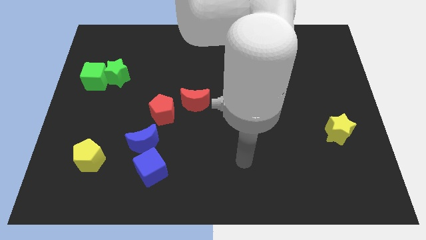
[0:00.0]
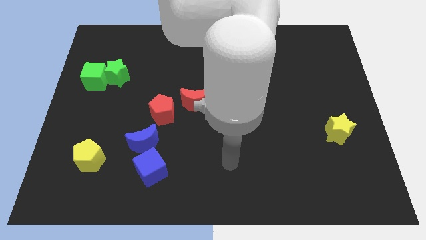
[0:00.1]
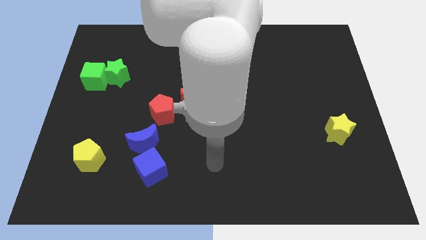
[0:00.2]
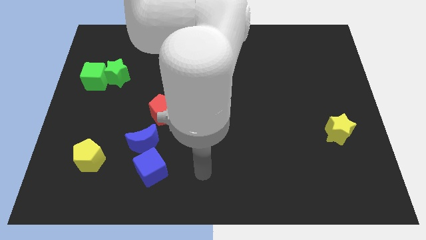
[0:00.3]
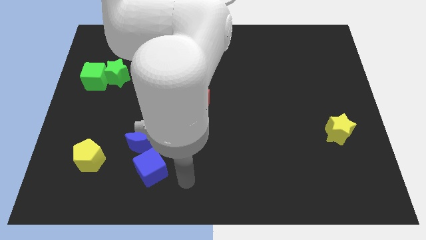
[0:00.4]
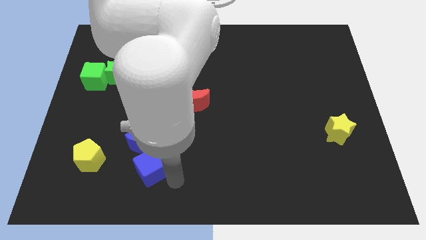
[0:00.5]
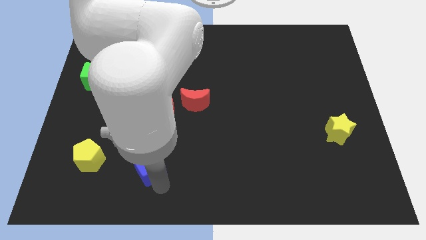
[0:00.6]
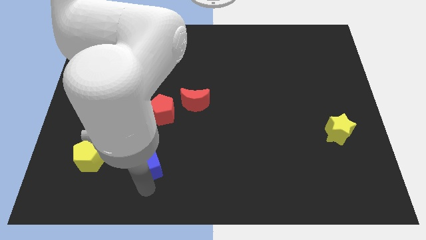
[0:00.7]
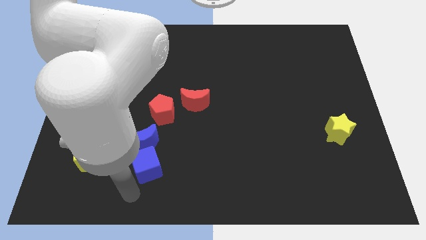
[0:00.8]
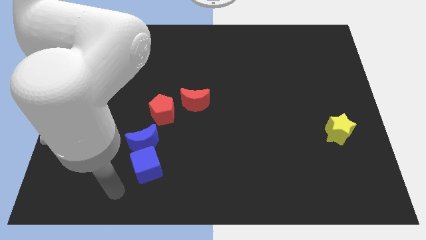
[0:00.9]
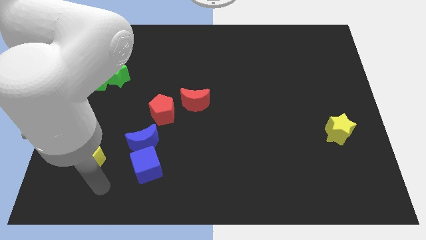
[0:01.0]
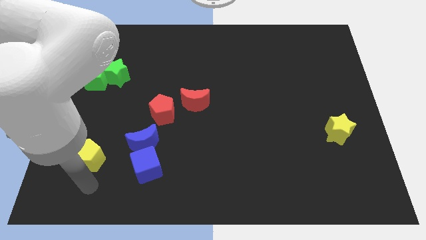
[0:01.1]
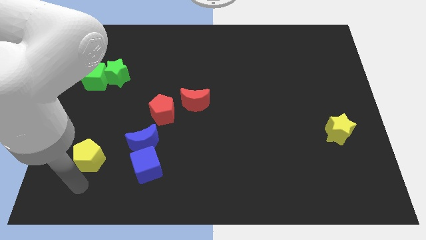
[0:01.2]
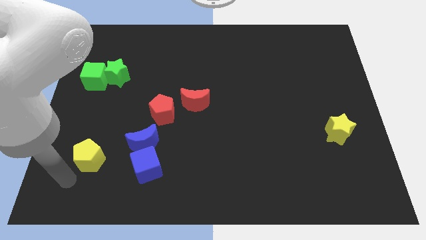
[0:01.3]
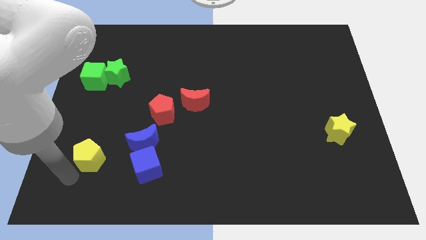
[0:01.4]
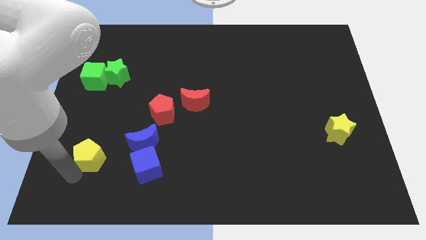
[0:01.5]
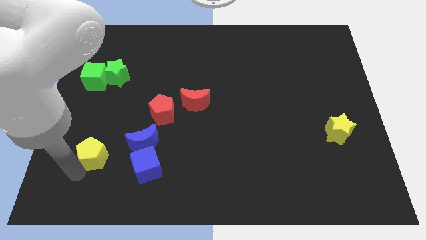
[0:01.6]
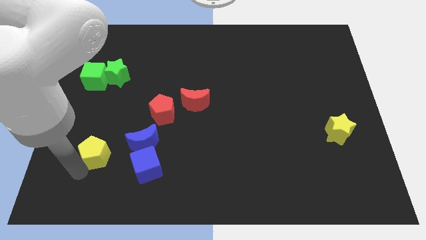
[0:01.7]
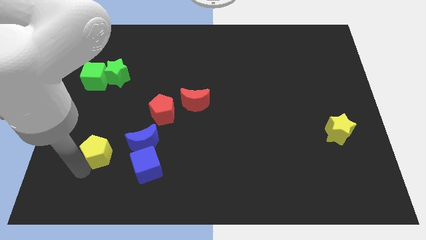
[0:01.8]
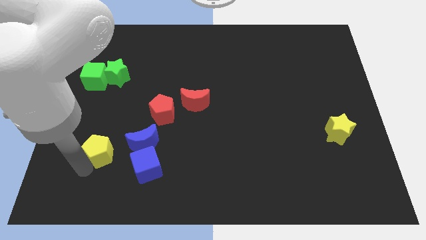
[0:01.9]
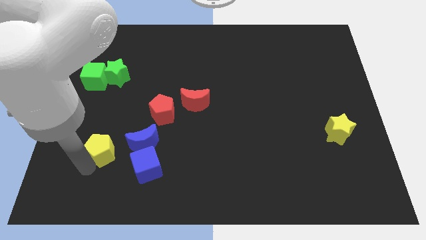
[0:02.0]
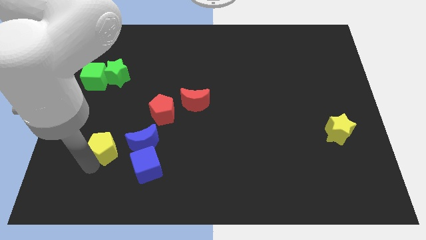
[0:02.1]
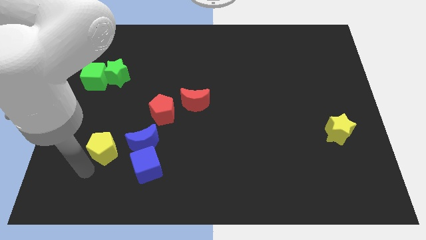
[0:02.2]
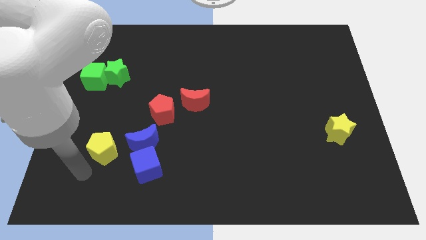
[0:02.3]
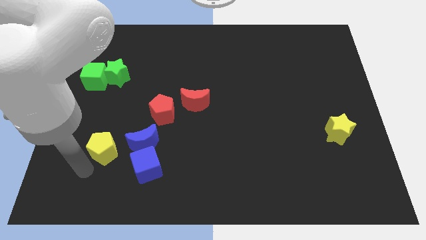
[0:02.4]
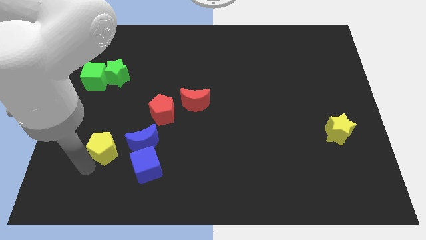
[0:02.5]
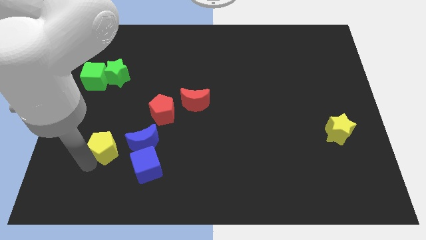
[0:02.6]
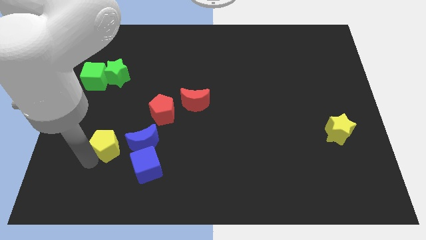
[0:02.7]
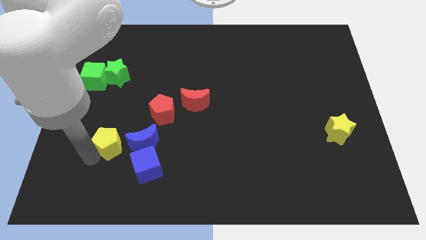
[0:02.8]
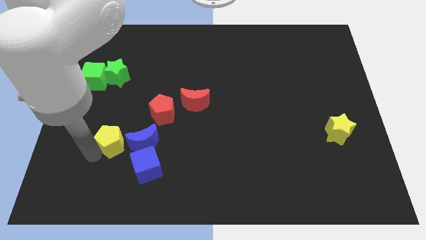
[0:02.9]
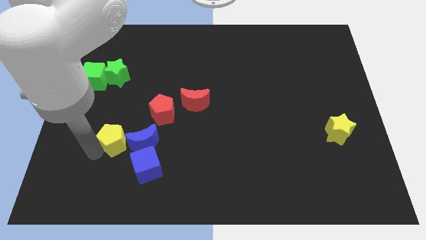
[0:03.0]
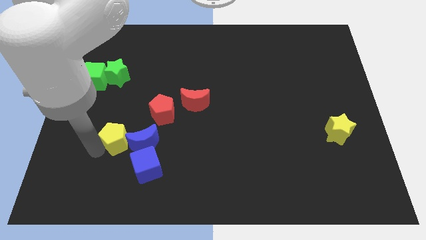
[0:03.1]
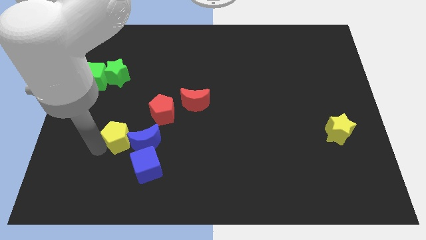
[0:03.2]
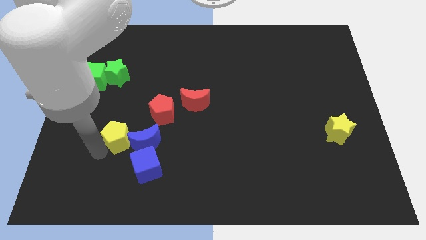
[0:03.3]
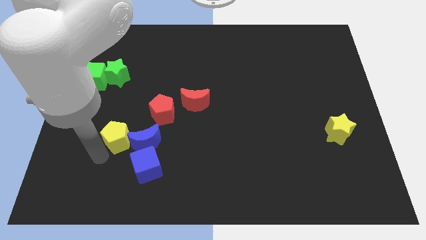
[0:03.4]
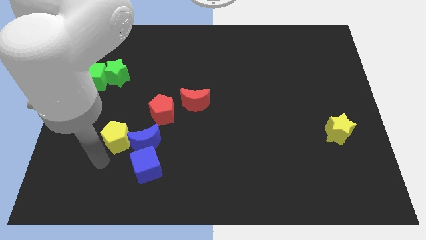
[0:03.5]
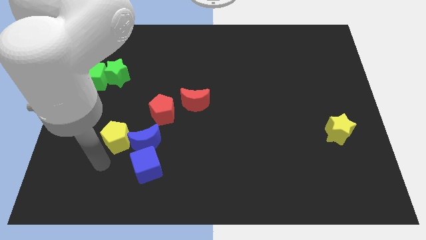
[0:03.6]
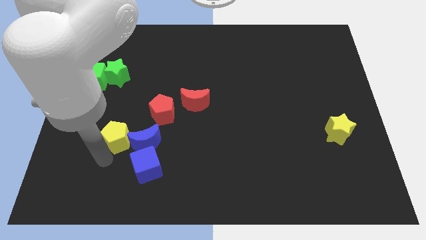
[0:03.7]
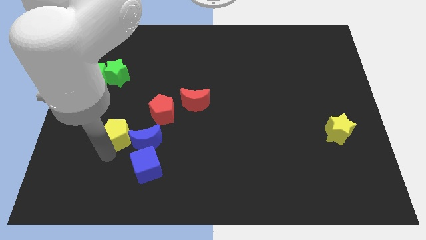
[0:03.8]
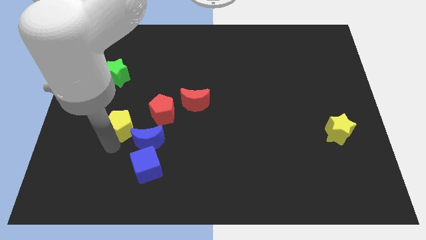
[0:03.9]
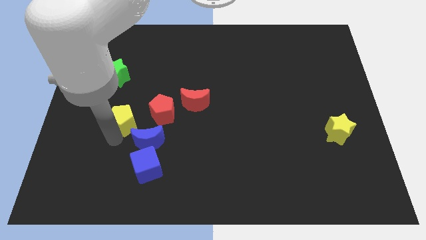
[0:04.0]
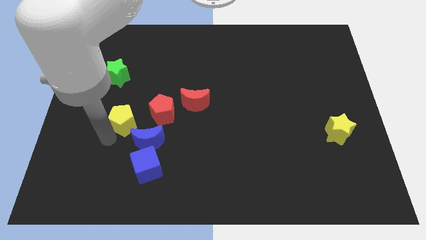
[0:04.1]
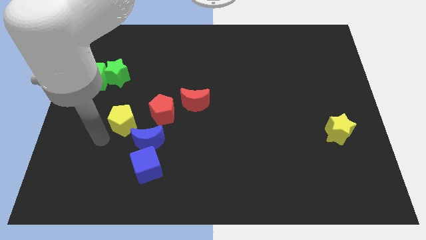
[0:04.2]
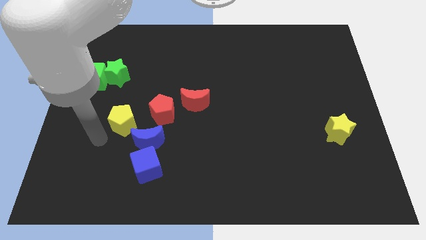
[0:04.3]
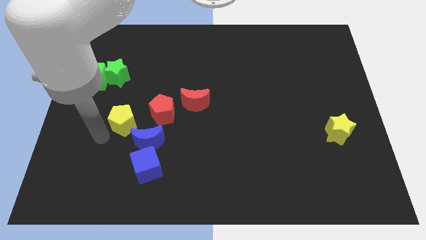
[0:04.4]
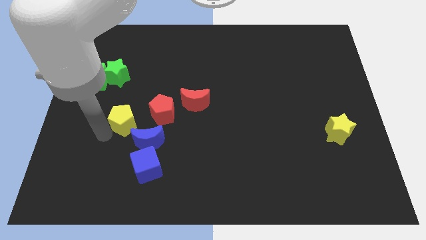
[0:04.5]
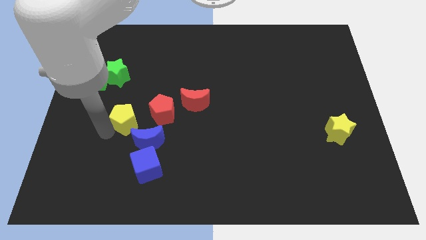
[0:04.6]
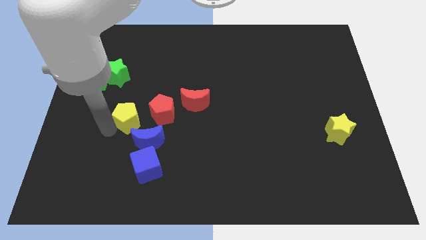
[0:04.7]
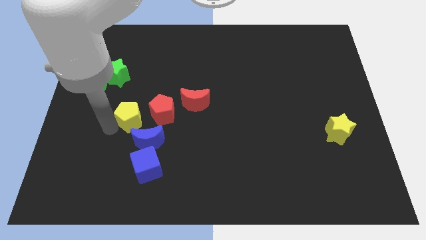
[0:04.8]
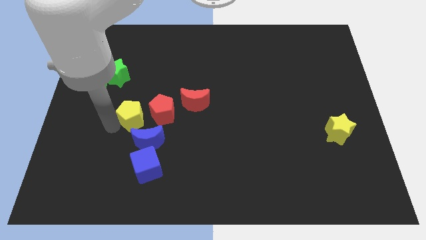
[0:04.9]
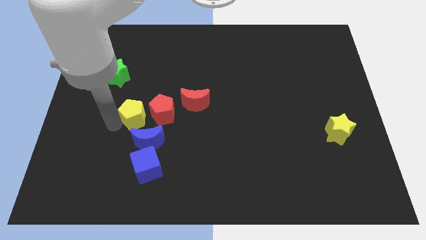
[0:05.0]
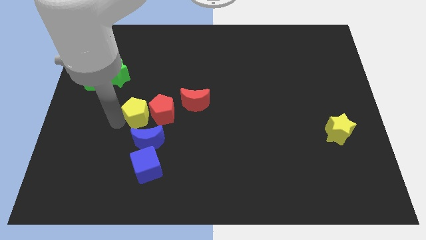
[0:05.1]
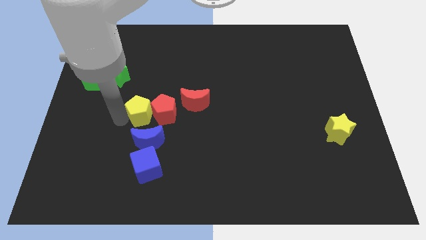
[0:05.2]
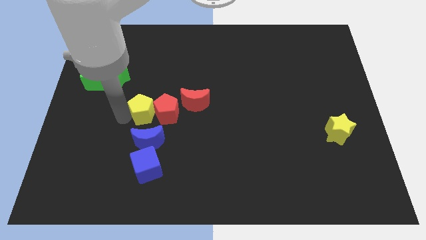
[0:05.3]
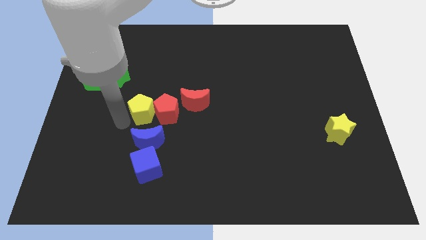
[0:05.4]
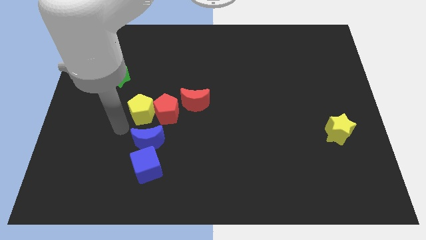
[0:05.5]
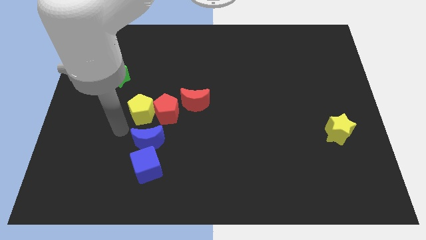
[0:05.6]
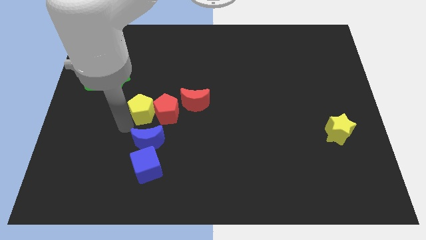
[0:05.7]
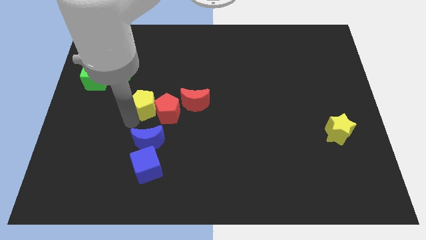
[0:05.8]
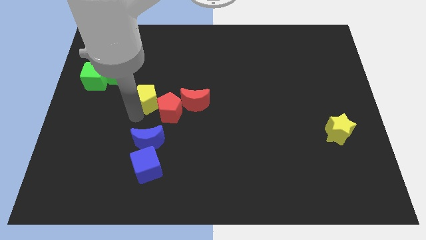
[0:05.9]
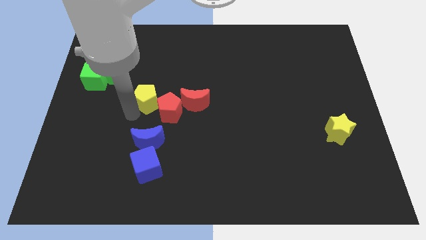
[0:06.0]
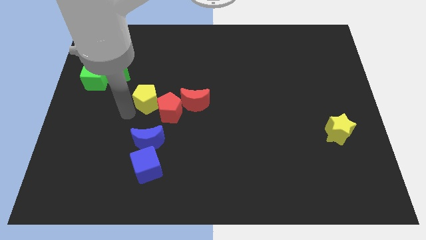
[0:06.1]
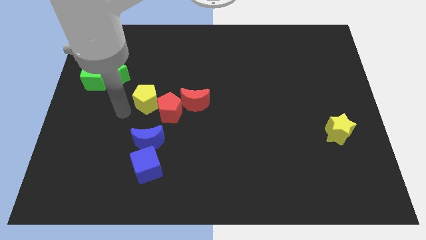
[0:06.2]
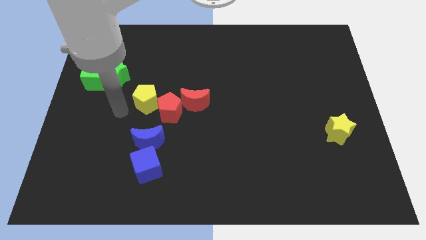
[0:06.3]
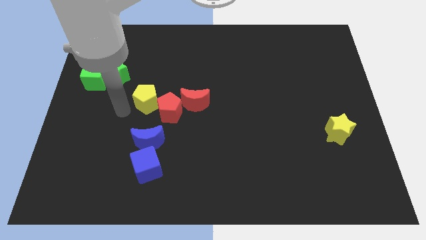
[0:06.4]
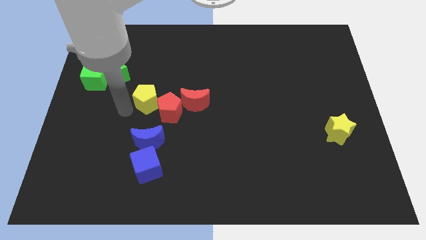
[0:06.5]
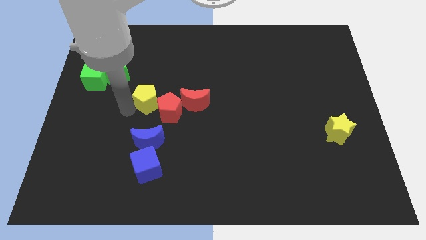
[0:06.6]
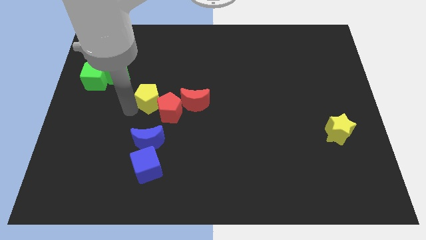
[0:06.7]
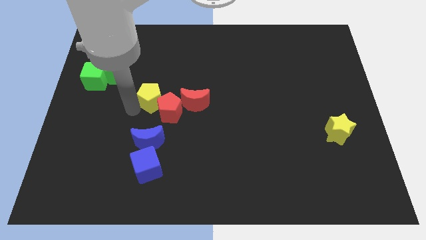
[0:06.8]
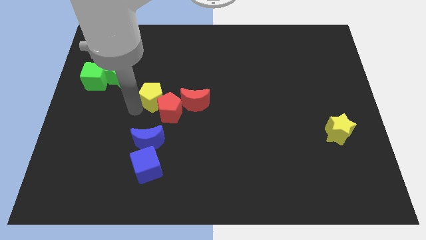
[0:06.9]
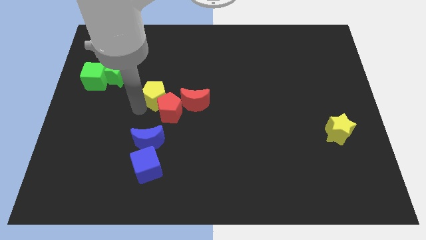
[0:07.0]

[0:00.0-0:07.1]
move the yellow pentagon diagonally upwards and to the right

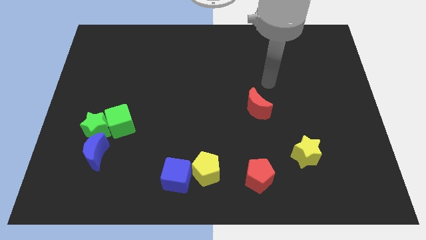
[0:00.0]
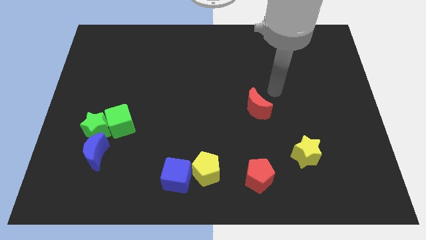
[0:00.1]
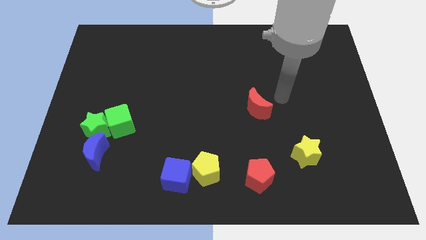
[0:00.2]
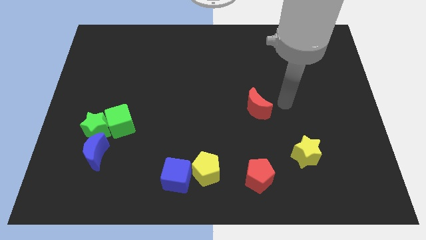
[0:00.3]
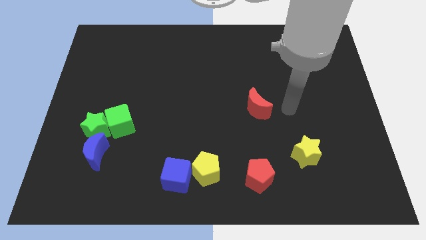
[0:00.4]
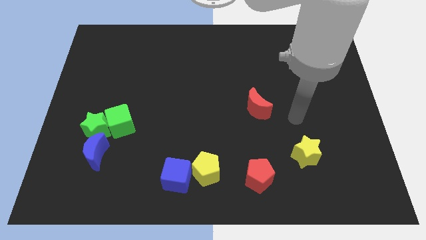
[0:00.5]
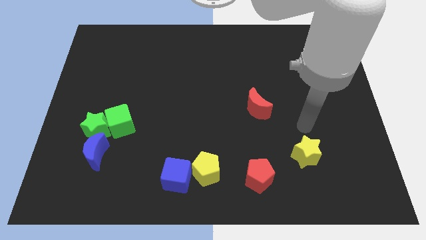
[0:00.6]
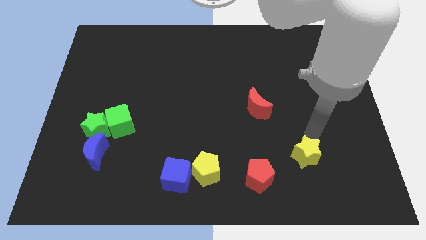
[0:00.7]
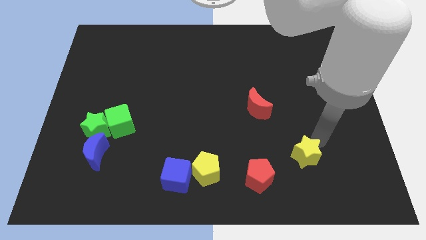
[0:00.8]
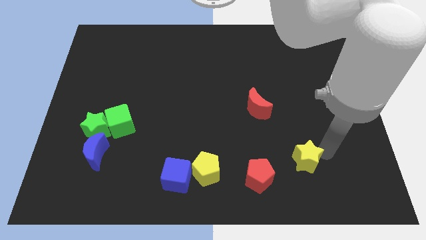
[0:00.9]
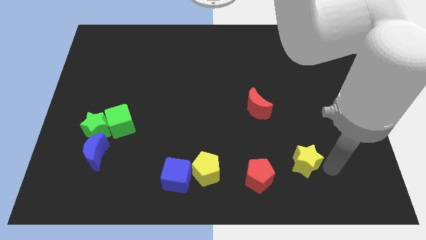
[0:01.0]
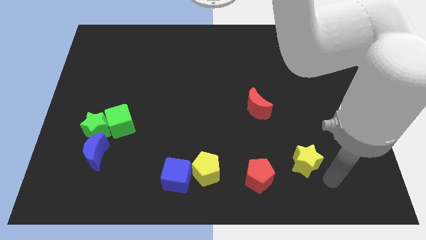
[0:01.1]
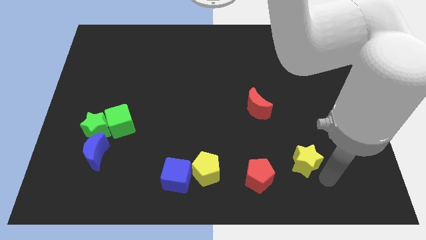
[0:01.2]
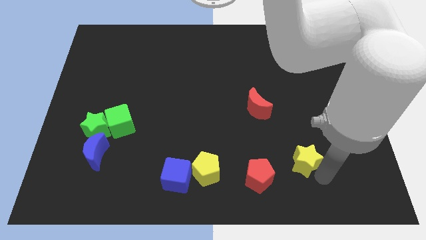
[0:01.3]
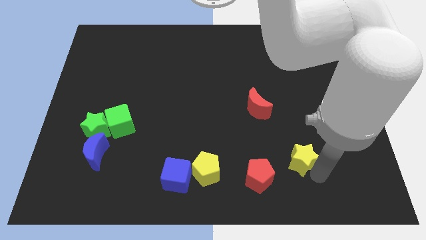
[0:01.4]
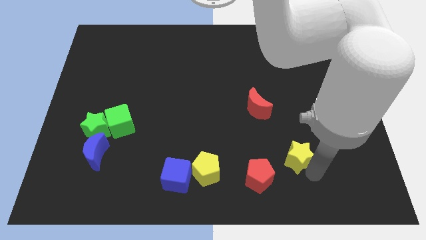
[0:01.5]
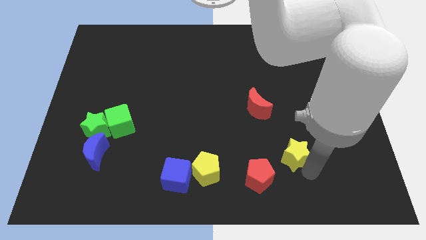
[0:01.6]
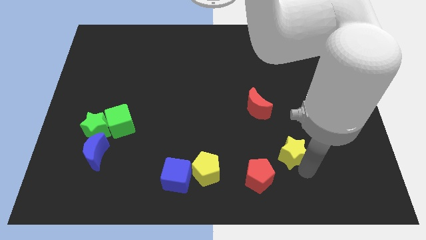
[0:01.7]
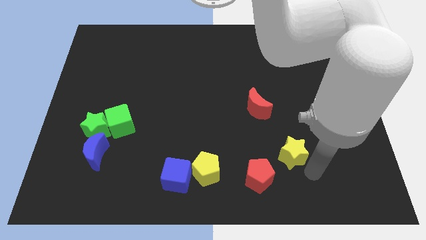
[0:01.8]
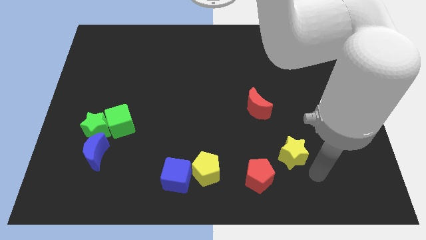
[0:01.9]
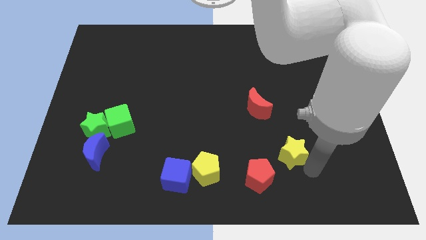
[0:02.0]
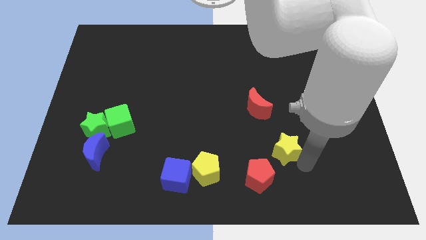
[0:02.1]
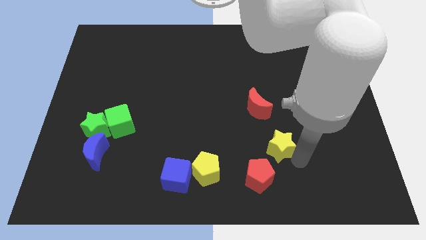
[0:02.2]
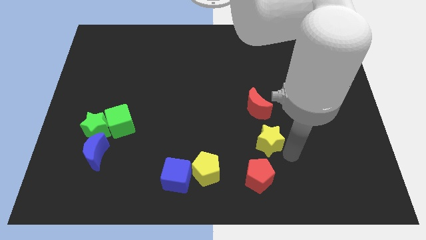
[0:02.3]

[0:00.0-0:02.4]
move the yellow star up and left diagonally a little
